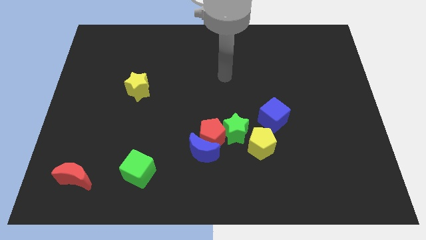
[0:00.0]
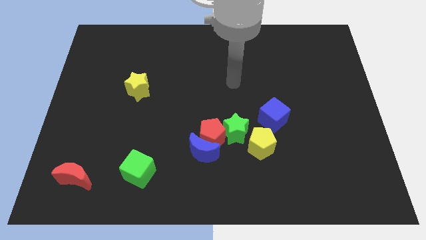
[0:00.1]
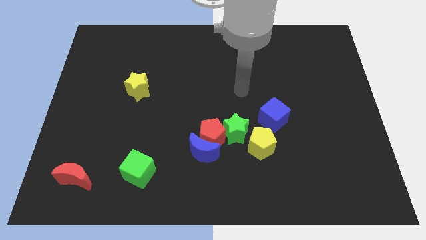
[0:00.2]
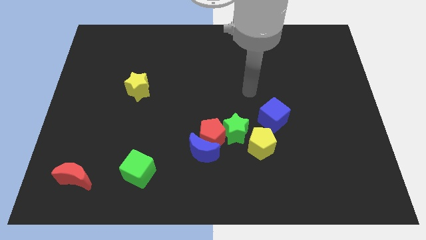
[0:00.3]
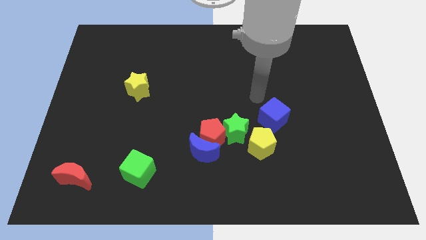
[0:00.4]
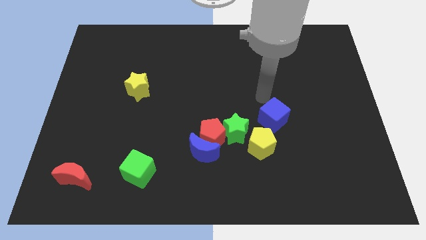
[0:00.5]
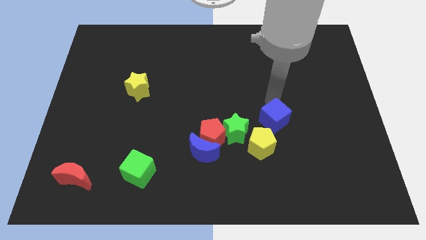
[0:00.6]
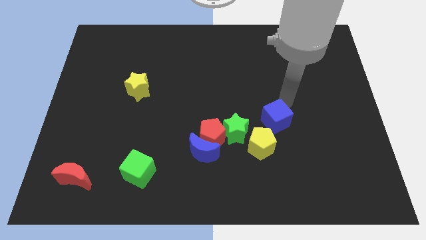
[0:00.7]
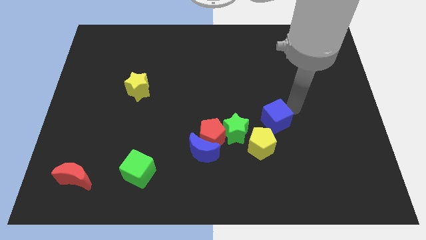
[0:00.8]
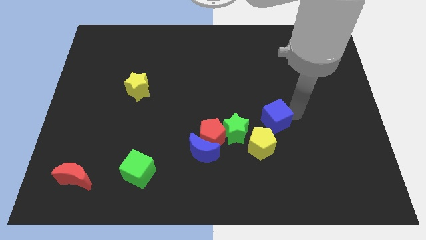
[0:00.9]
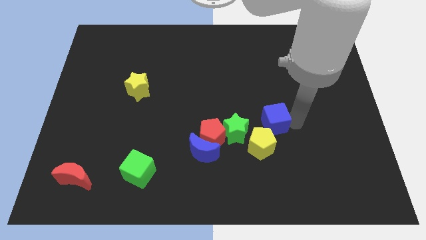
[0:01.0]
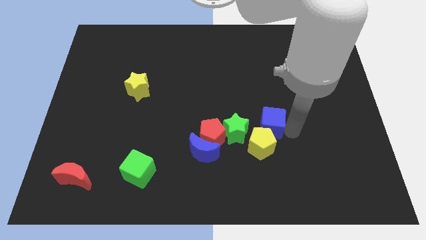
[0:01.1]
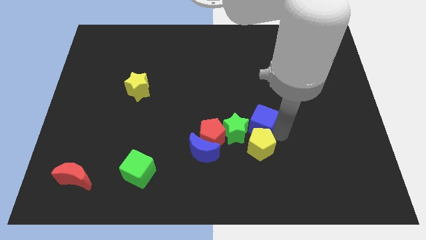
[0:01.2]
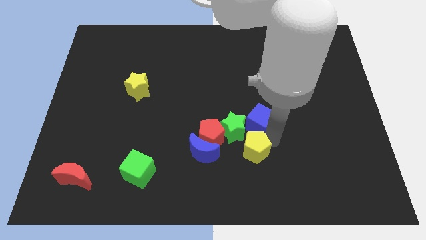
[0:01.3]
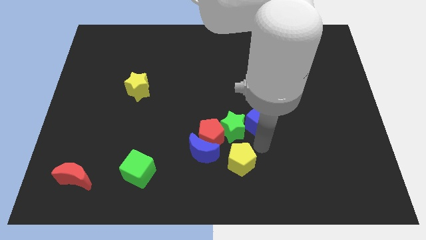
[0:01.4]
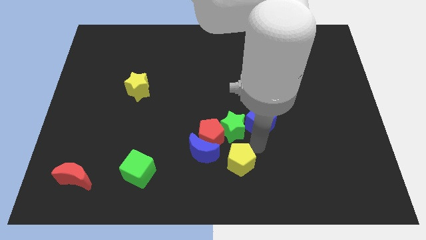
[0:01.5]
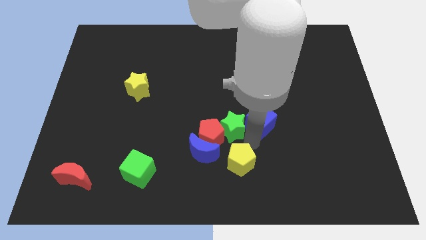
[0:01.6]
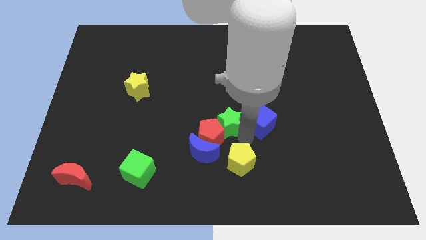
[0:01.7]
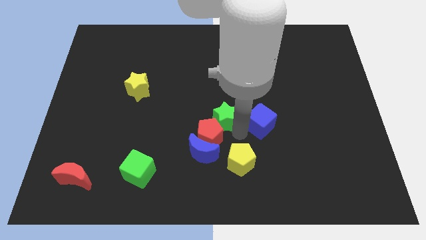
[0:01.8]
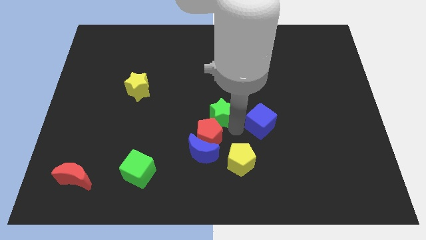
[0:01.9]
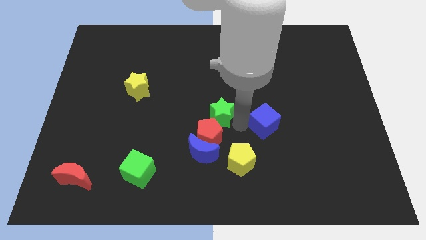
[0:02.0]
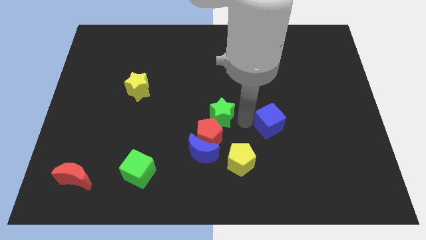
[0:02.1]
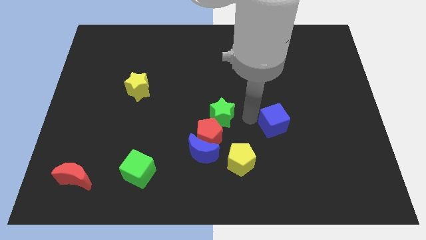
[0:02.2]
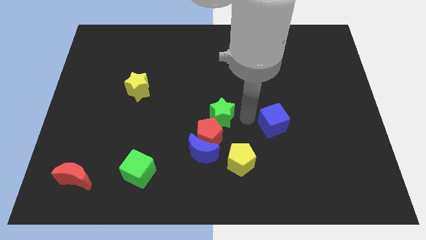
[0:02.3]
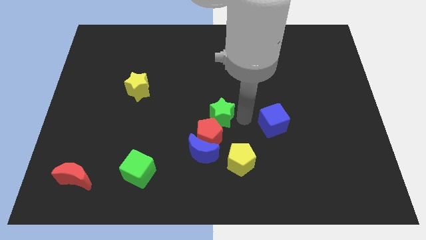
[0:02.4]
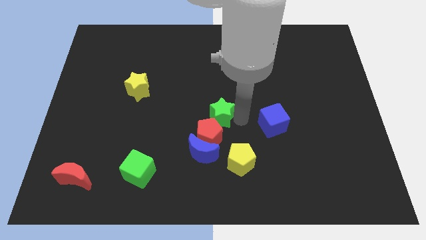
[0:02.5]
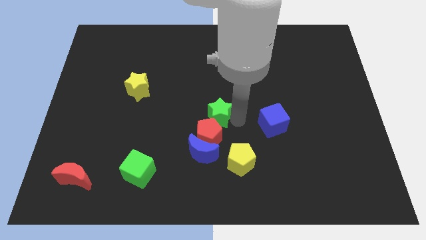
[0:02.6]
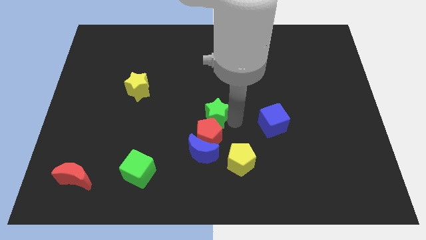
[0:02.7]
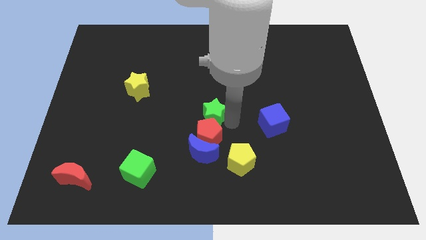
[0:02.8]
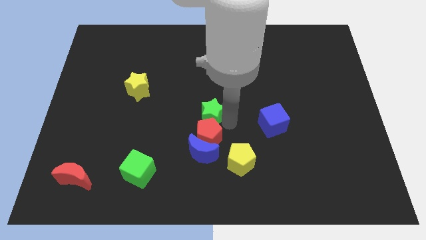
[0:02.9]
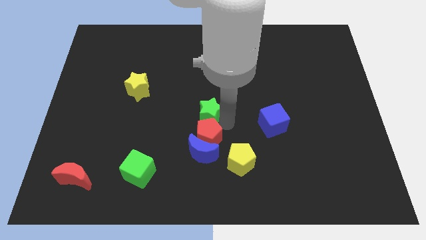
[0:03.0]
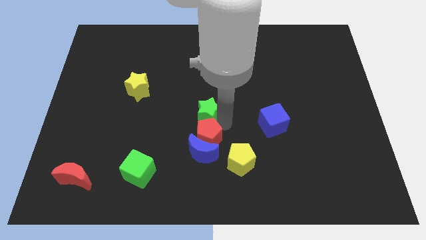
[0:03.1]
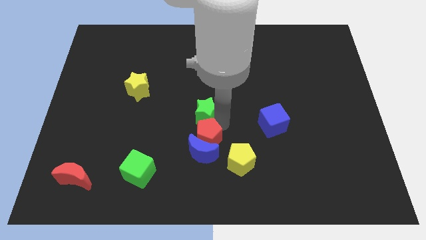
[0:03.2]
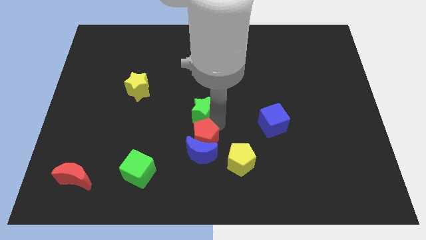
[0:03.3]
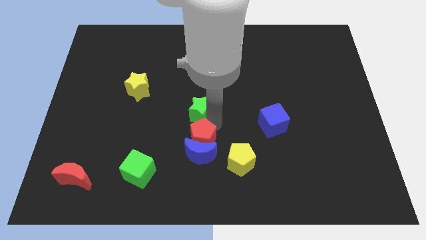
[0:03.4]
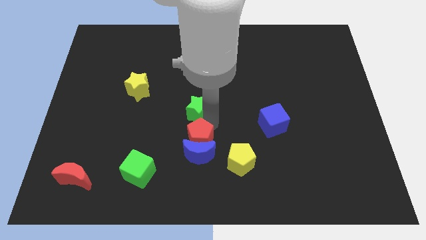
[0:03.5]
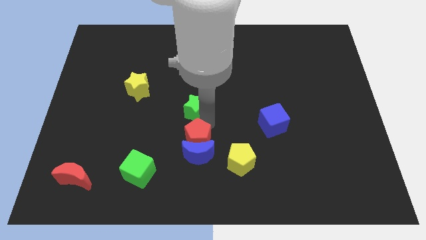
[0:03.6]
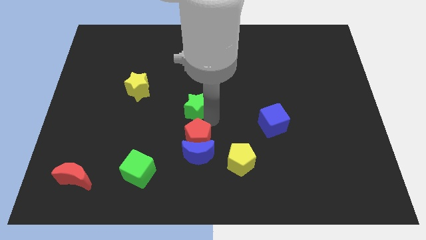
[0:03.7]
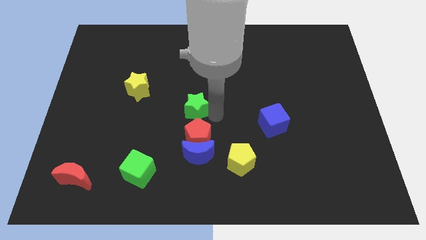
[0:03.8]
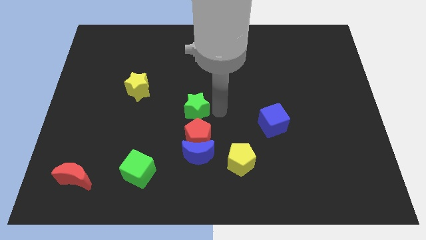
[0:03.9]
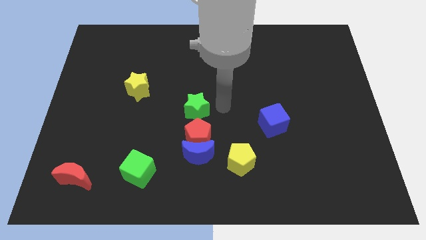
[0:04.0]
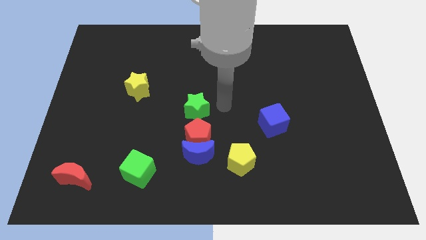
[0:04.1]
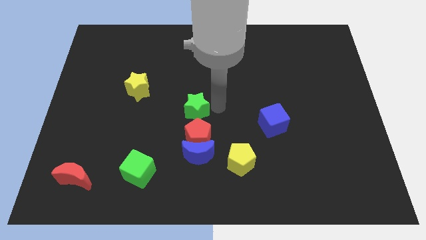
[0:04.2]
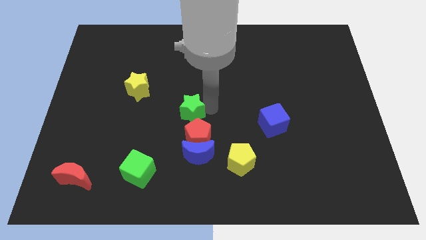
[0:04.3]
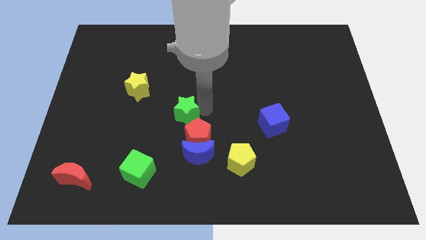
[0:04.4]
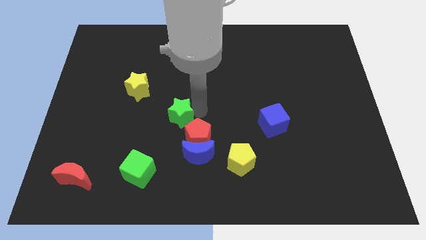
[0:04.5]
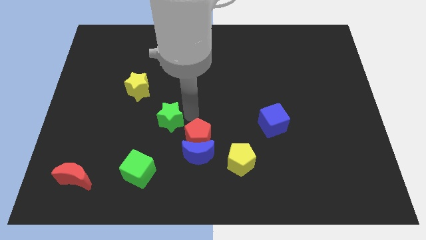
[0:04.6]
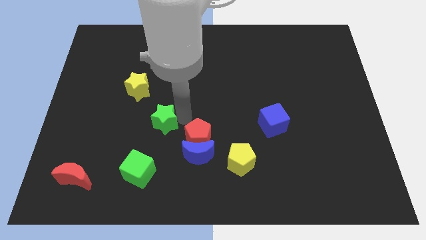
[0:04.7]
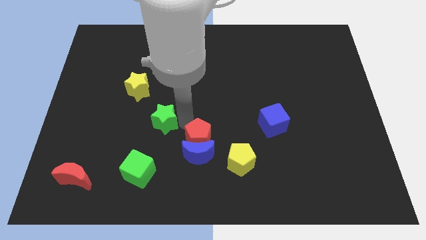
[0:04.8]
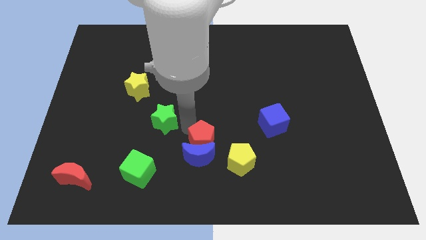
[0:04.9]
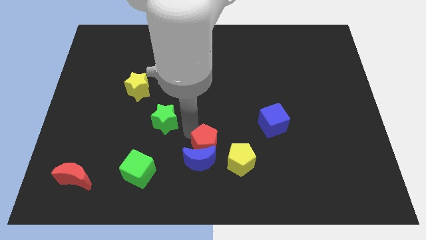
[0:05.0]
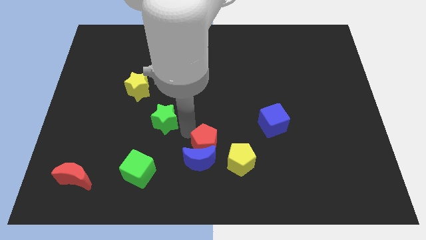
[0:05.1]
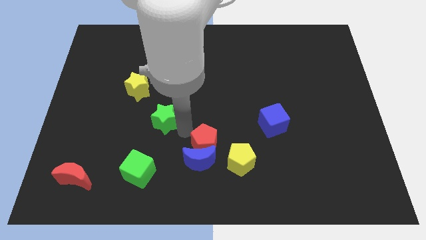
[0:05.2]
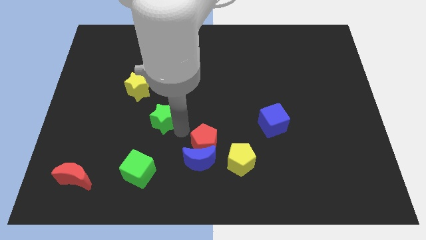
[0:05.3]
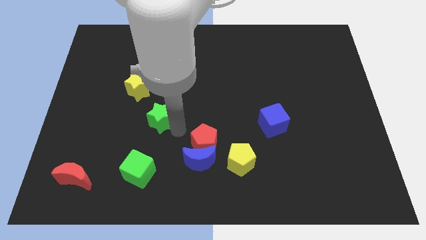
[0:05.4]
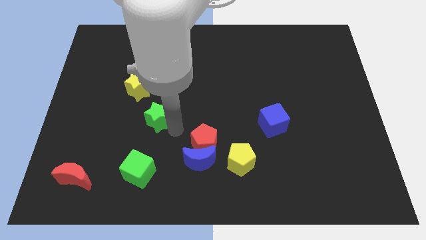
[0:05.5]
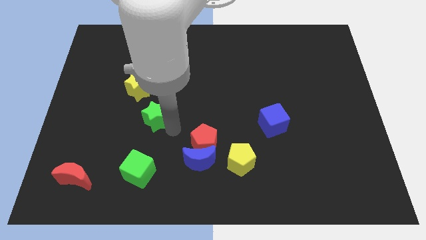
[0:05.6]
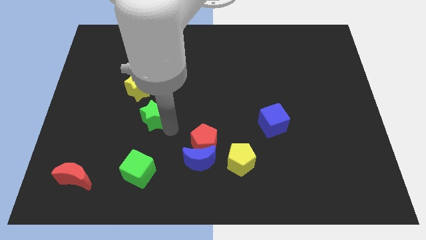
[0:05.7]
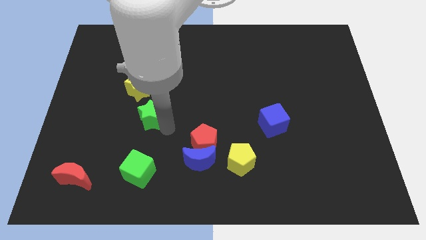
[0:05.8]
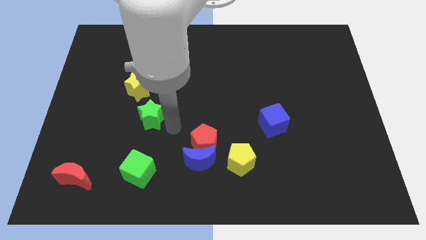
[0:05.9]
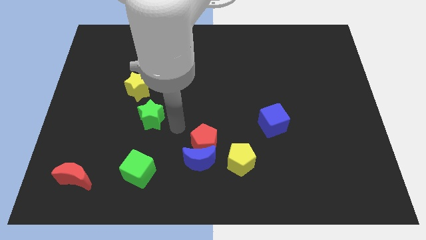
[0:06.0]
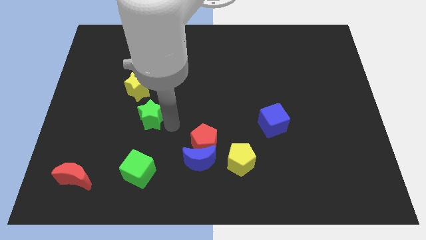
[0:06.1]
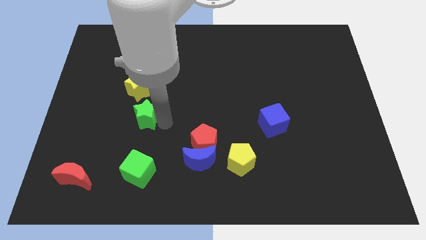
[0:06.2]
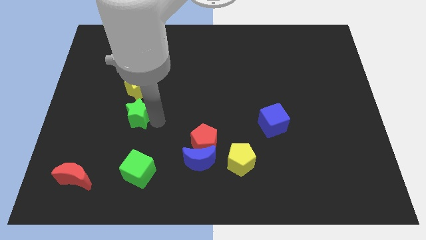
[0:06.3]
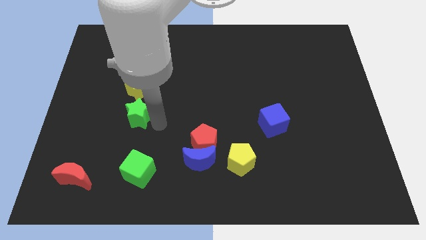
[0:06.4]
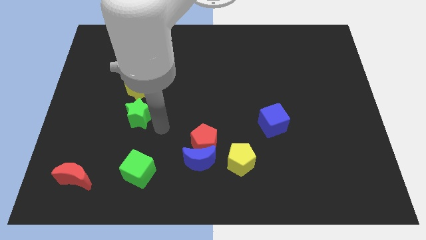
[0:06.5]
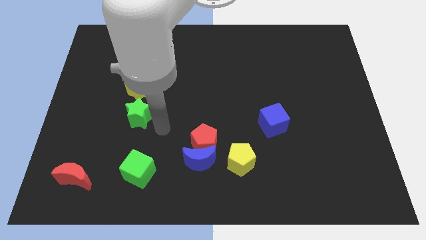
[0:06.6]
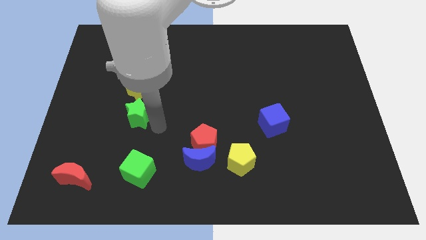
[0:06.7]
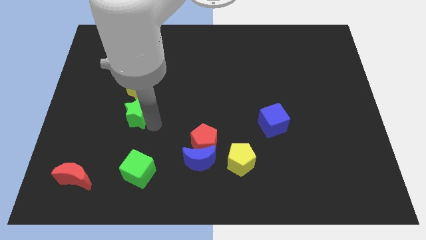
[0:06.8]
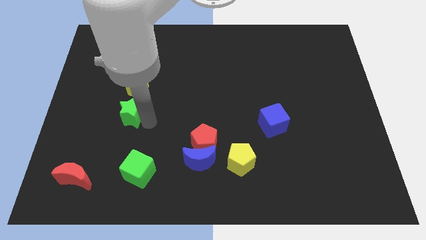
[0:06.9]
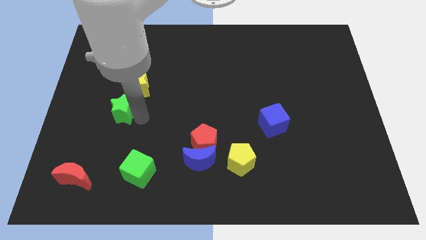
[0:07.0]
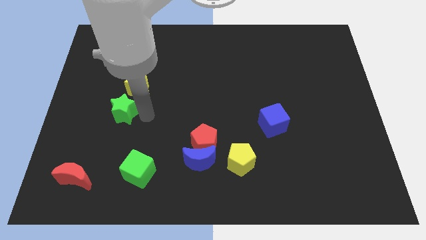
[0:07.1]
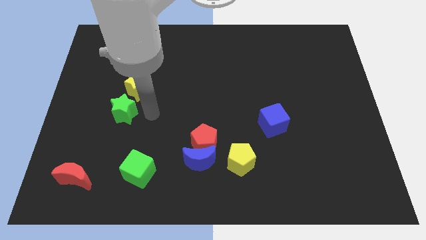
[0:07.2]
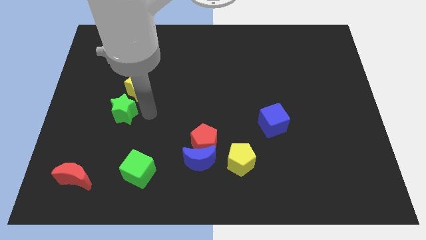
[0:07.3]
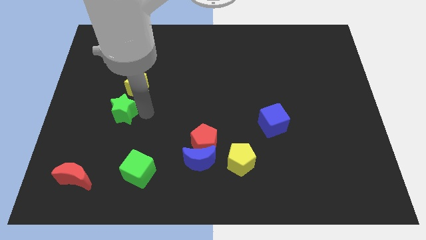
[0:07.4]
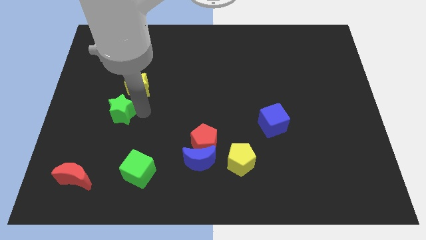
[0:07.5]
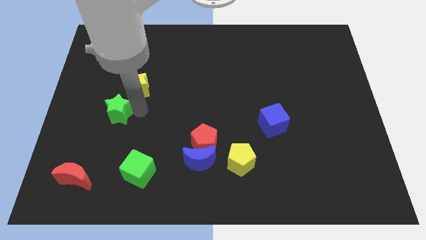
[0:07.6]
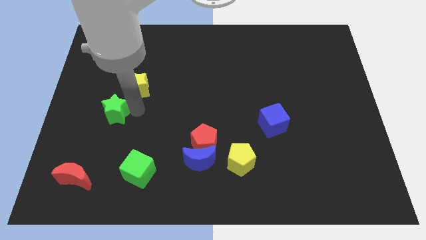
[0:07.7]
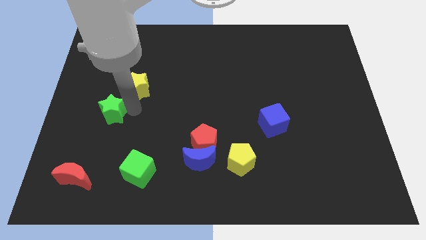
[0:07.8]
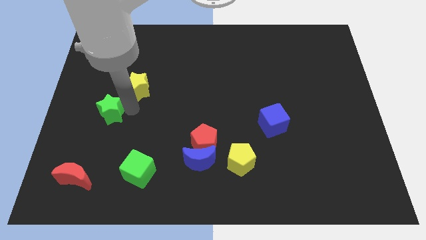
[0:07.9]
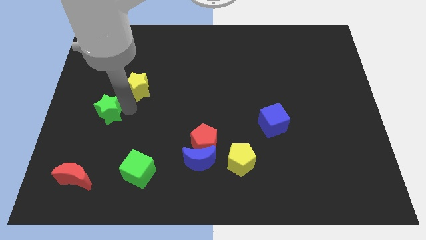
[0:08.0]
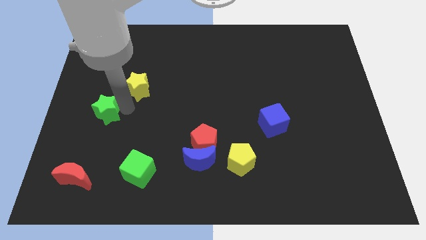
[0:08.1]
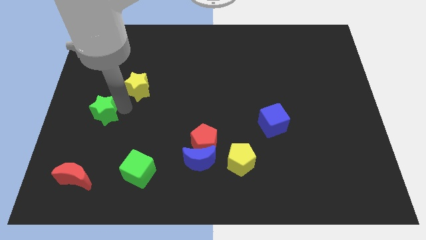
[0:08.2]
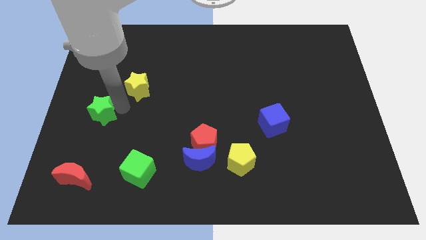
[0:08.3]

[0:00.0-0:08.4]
push the green star to the left side
